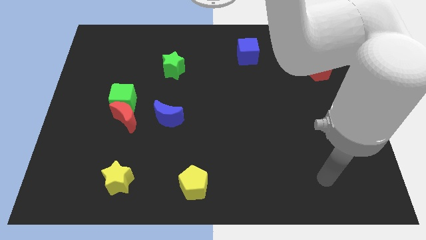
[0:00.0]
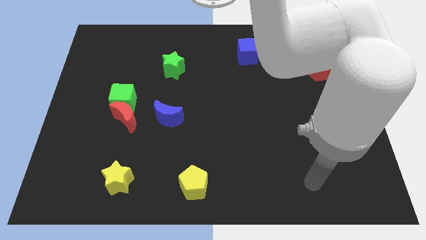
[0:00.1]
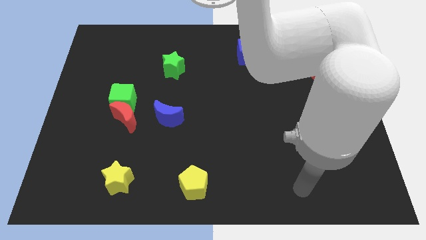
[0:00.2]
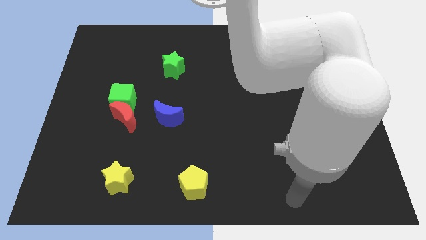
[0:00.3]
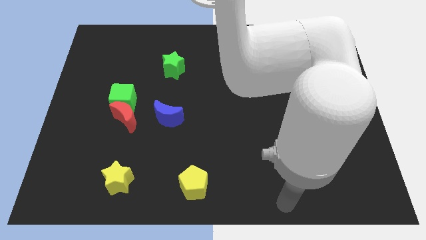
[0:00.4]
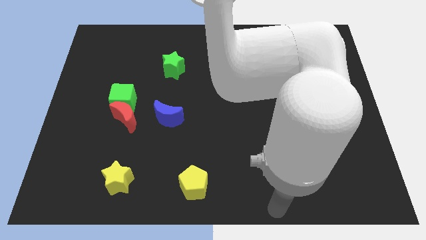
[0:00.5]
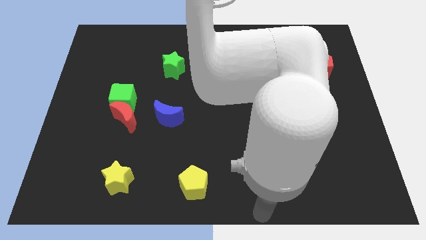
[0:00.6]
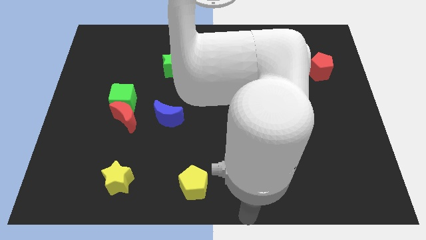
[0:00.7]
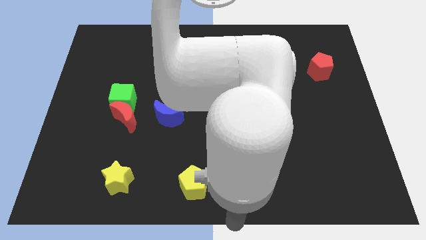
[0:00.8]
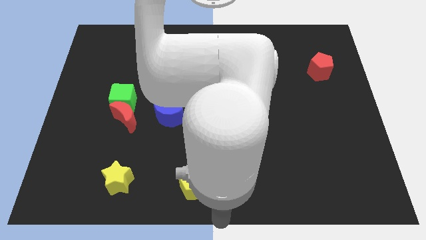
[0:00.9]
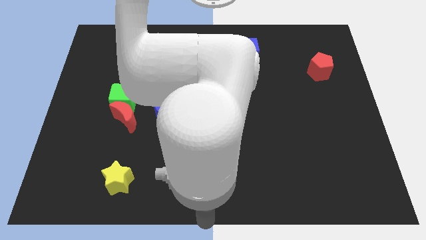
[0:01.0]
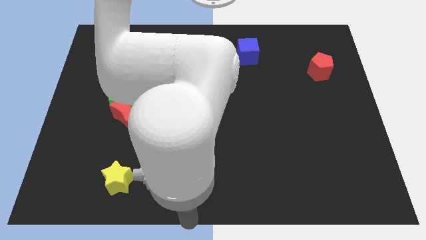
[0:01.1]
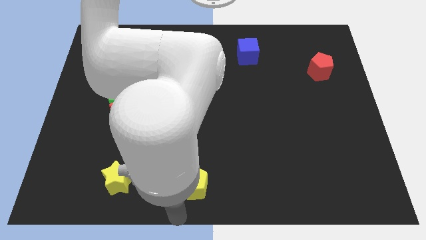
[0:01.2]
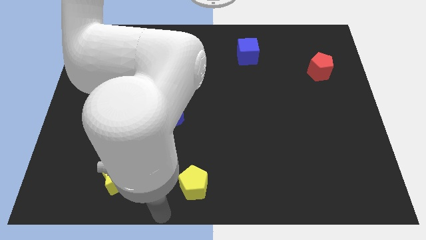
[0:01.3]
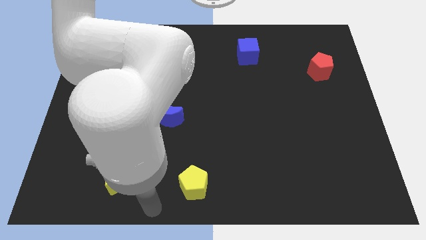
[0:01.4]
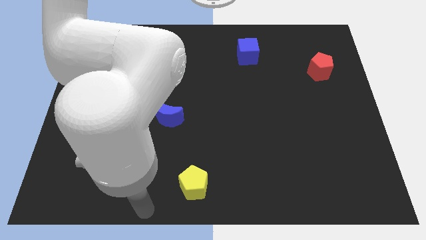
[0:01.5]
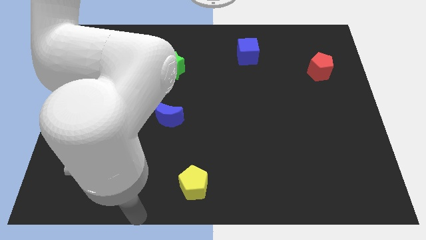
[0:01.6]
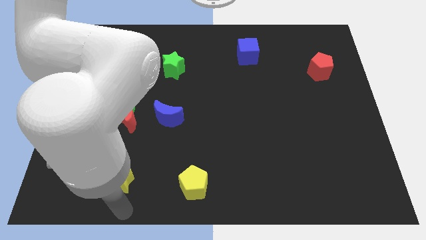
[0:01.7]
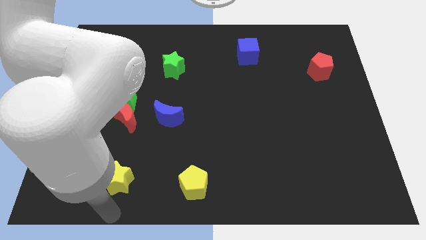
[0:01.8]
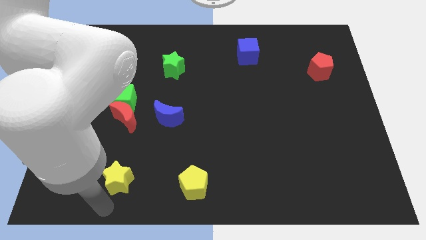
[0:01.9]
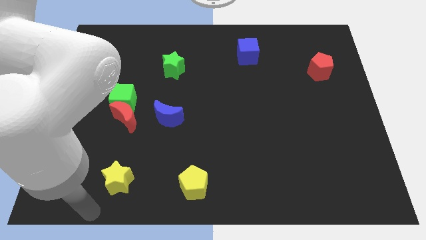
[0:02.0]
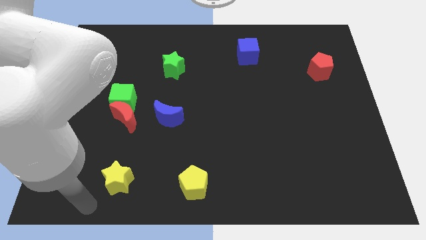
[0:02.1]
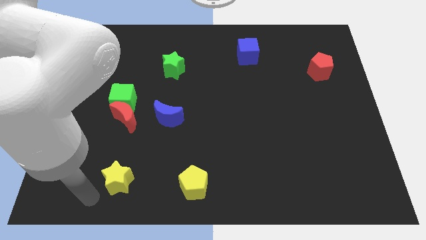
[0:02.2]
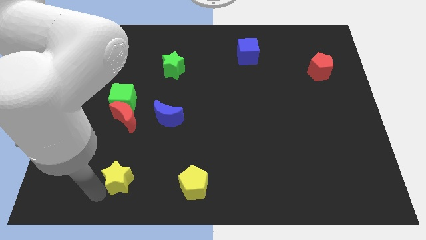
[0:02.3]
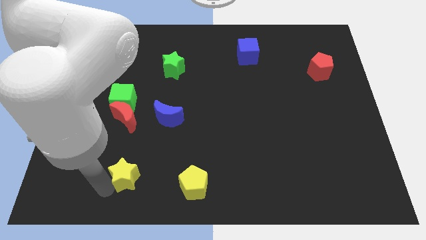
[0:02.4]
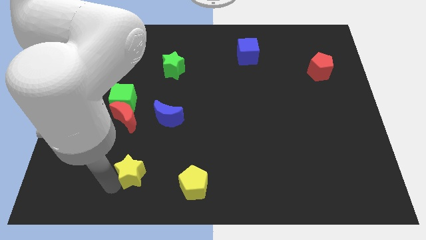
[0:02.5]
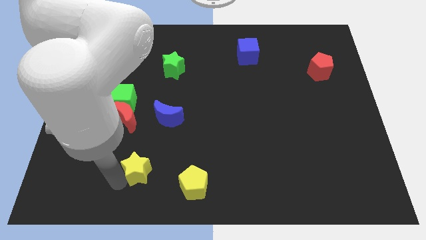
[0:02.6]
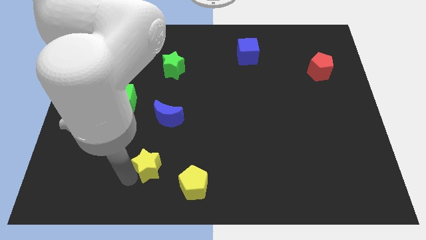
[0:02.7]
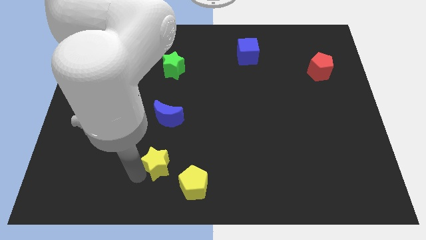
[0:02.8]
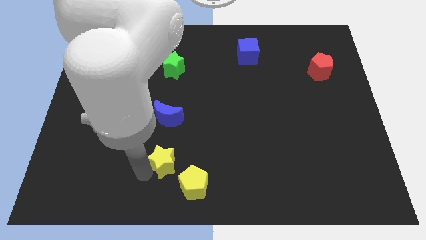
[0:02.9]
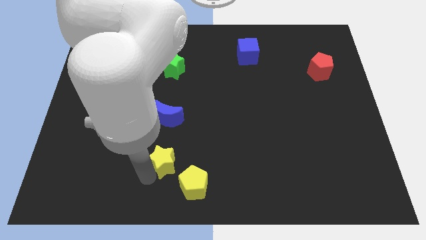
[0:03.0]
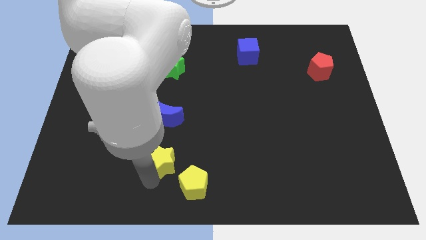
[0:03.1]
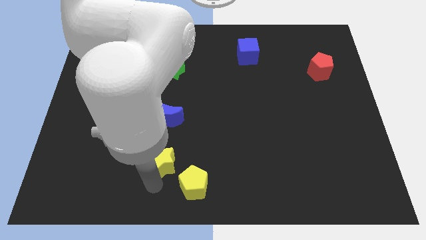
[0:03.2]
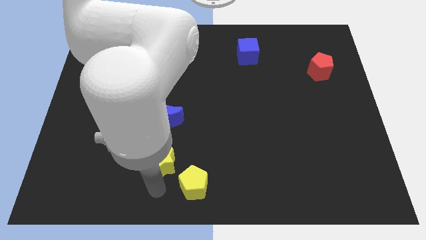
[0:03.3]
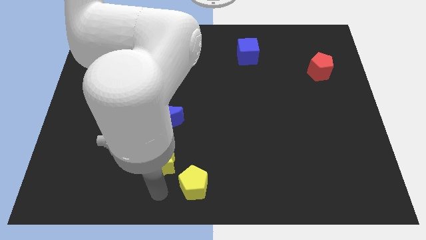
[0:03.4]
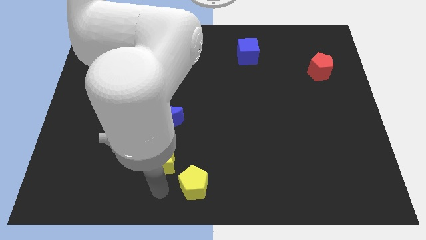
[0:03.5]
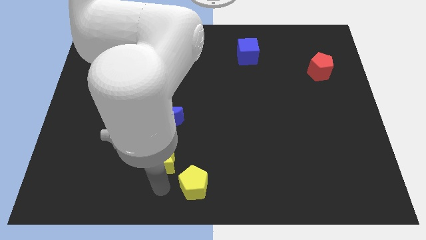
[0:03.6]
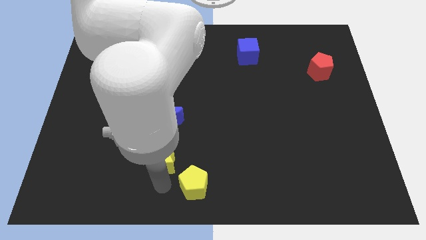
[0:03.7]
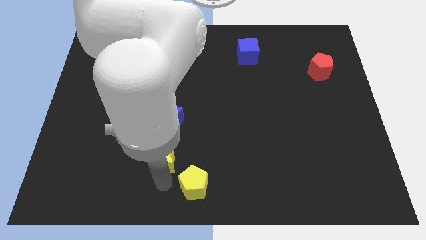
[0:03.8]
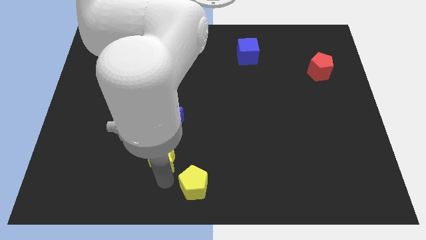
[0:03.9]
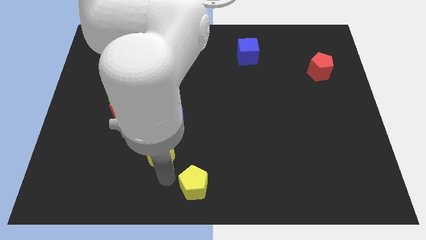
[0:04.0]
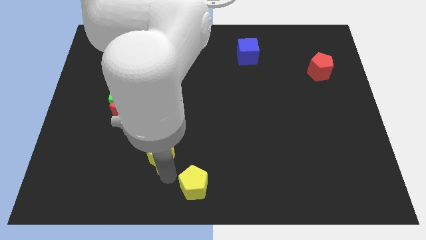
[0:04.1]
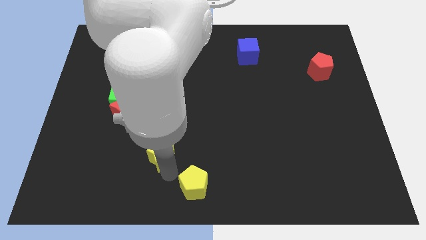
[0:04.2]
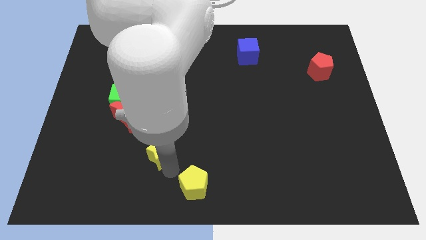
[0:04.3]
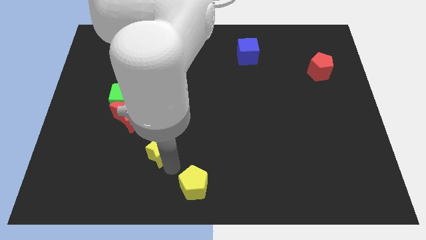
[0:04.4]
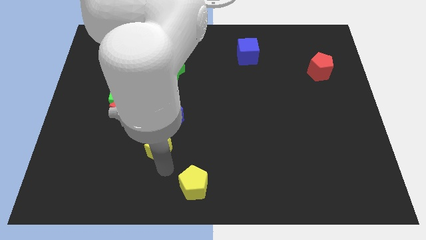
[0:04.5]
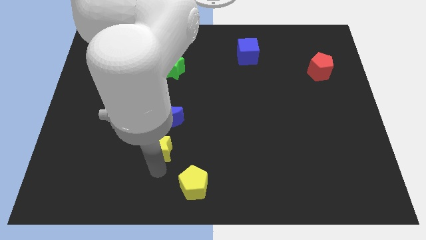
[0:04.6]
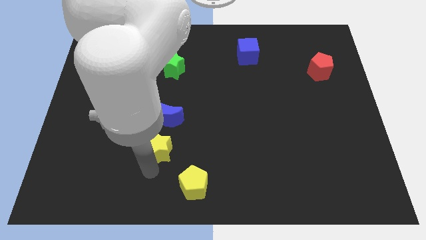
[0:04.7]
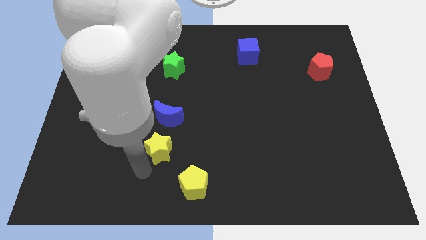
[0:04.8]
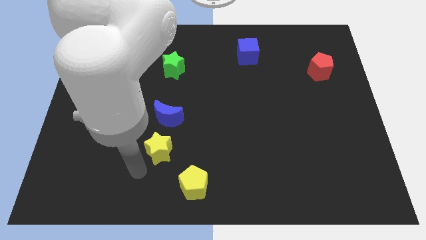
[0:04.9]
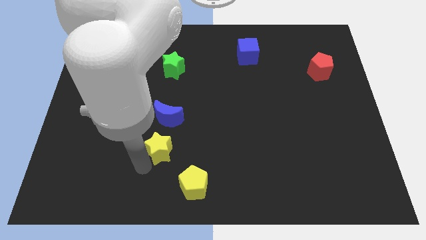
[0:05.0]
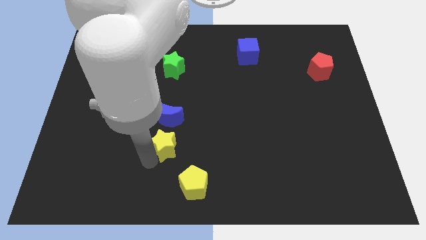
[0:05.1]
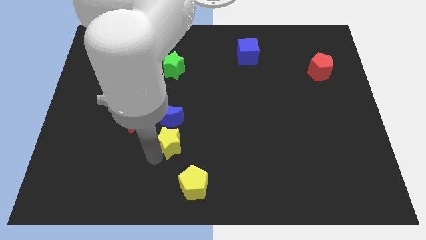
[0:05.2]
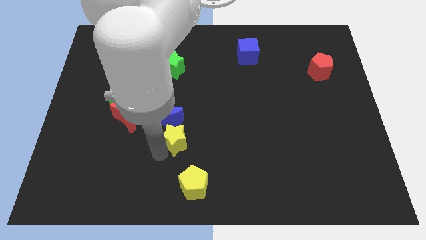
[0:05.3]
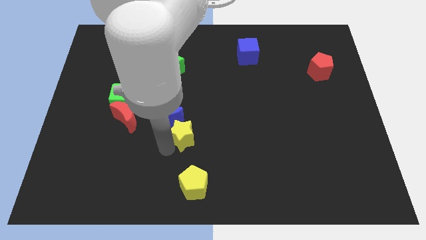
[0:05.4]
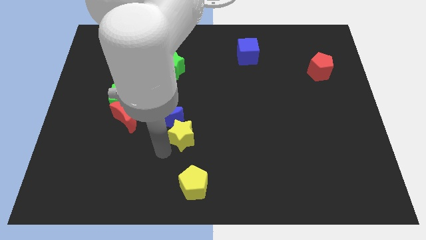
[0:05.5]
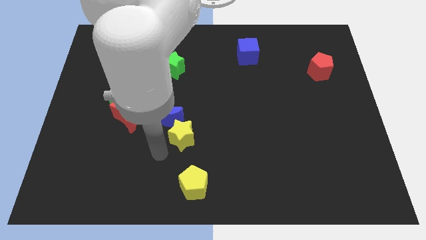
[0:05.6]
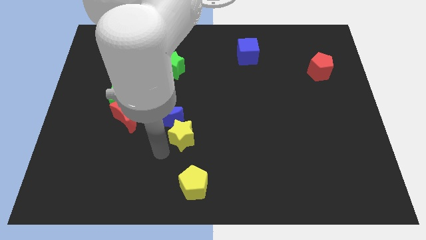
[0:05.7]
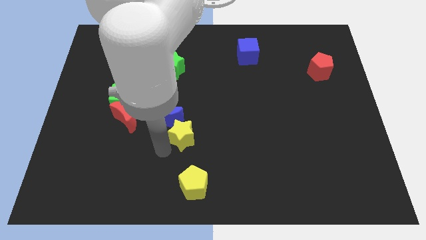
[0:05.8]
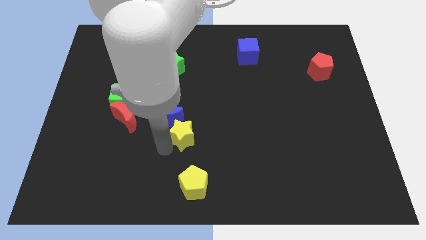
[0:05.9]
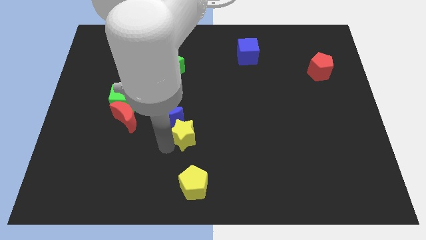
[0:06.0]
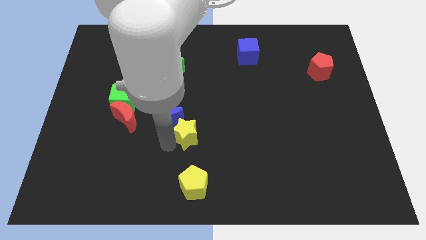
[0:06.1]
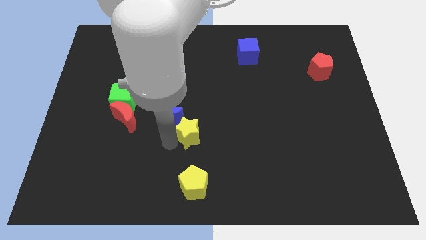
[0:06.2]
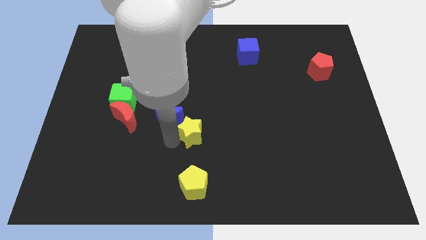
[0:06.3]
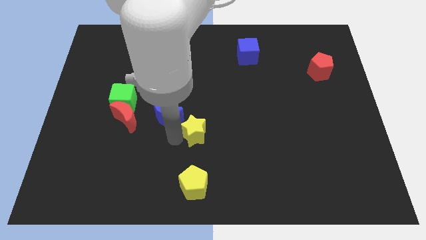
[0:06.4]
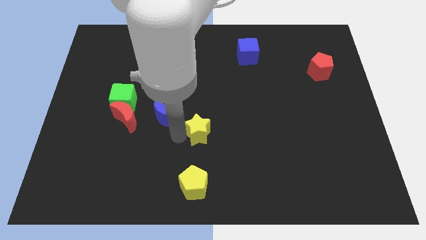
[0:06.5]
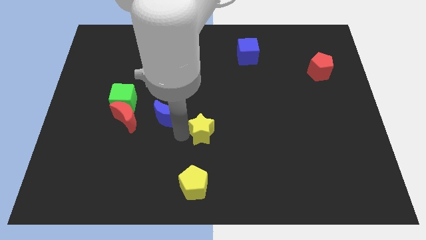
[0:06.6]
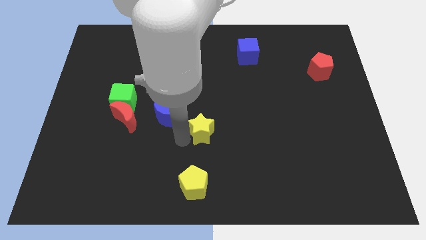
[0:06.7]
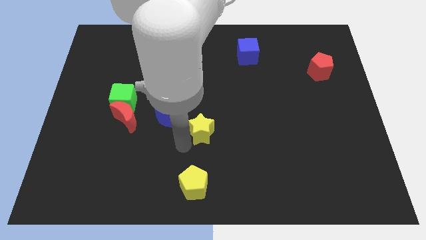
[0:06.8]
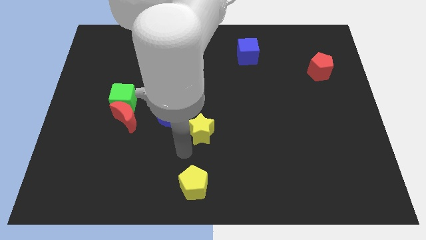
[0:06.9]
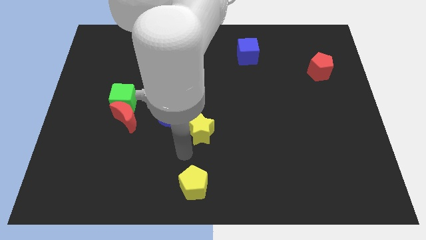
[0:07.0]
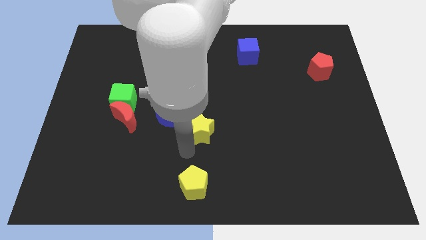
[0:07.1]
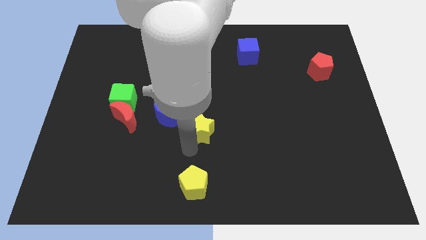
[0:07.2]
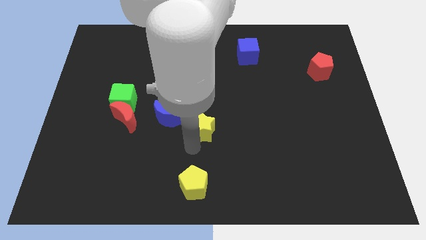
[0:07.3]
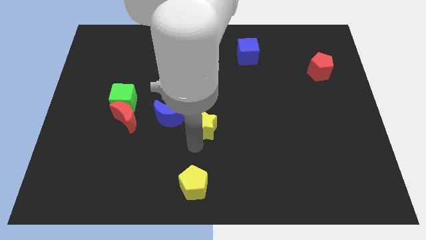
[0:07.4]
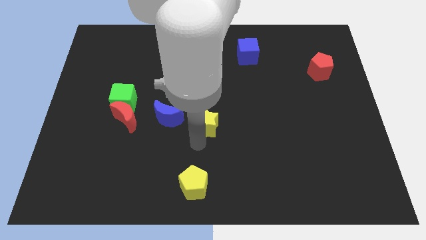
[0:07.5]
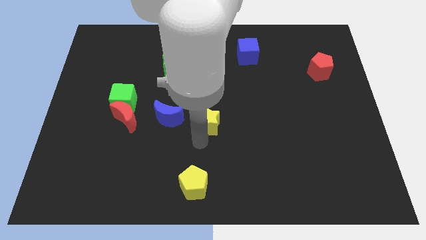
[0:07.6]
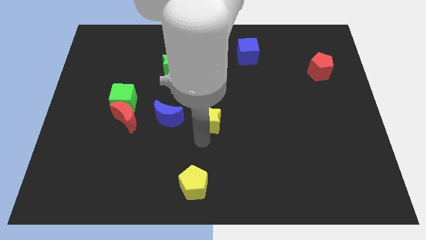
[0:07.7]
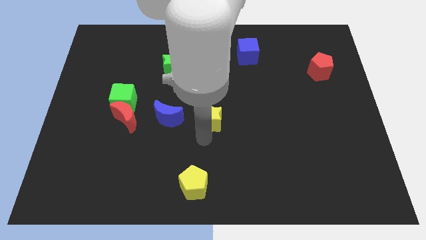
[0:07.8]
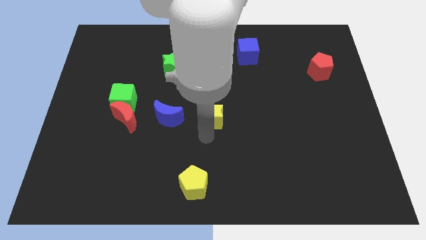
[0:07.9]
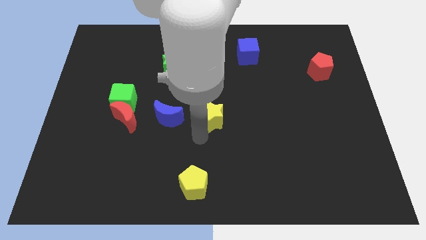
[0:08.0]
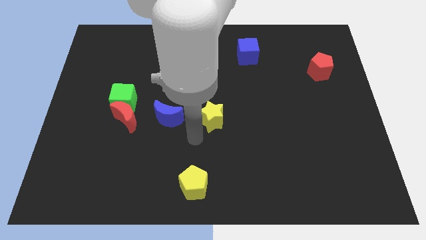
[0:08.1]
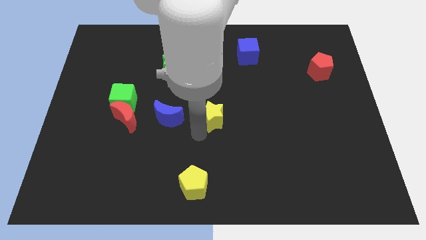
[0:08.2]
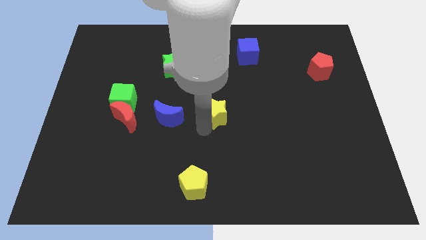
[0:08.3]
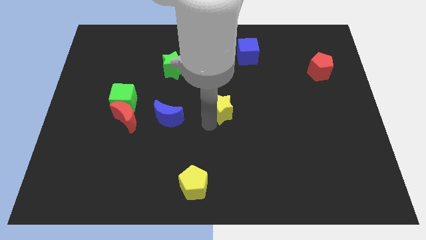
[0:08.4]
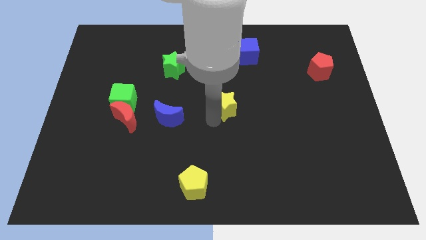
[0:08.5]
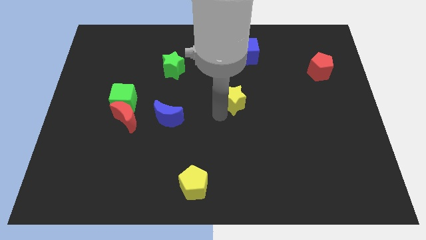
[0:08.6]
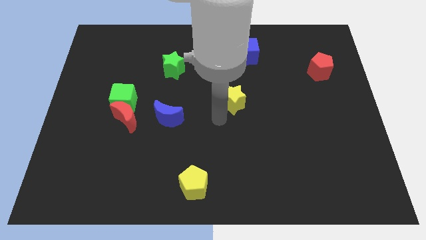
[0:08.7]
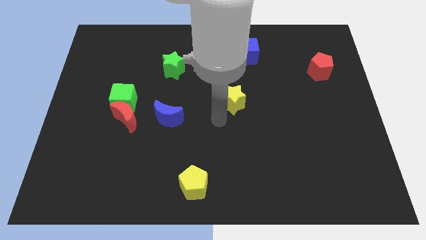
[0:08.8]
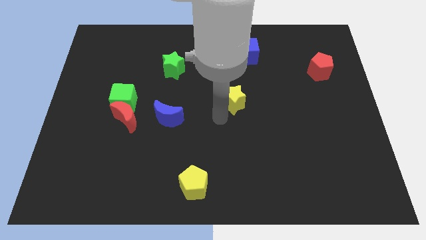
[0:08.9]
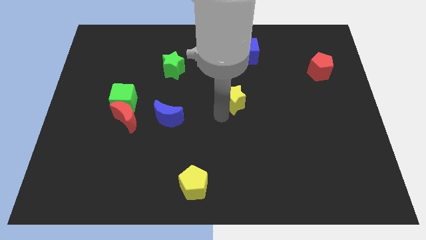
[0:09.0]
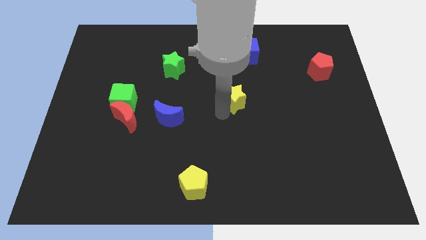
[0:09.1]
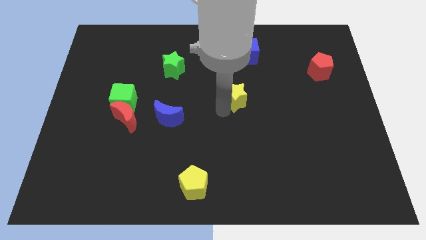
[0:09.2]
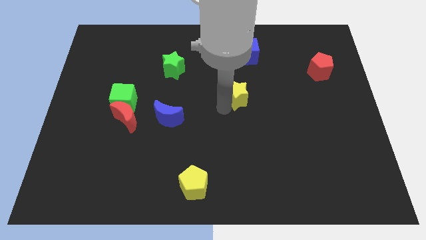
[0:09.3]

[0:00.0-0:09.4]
push the yellow star to the bottom of the blue cube
